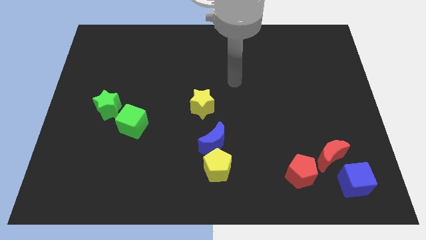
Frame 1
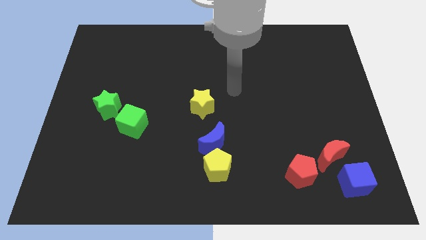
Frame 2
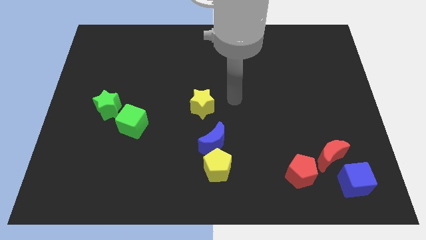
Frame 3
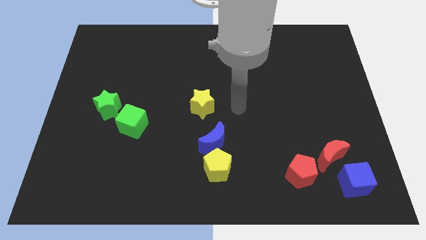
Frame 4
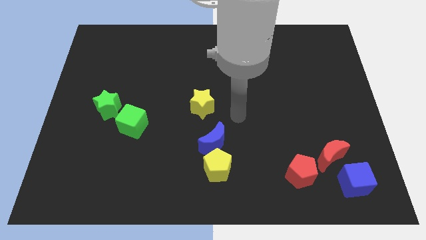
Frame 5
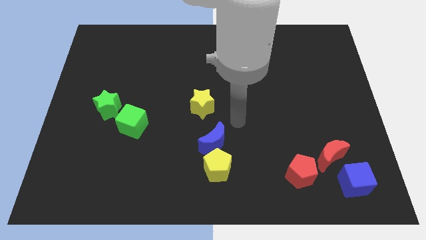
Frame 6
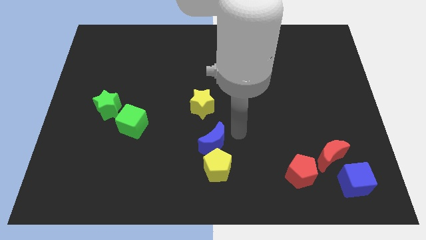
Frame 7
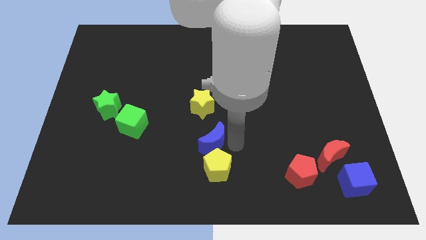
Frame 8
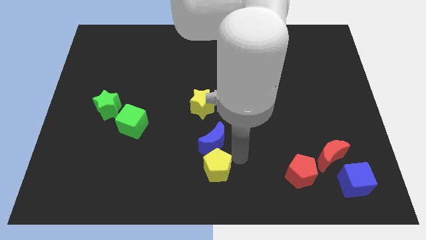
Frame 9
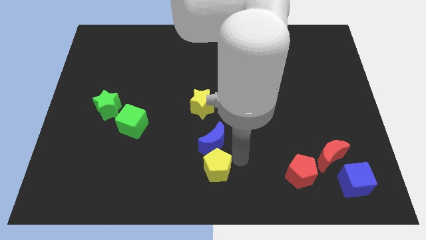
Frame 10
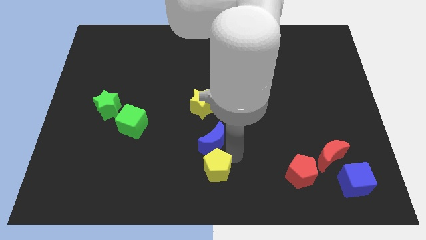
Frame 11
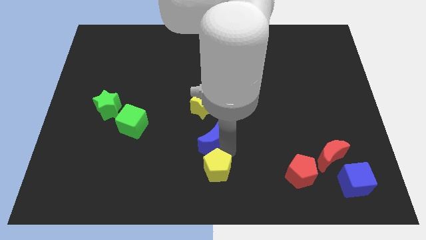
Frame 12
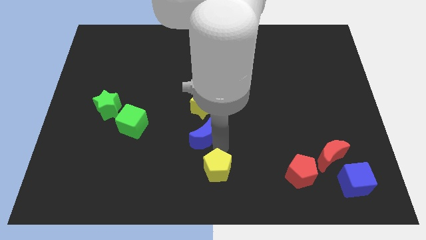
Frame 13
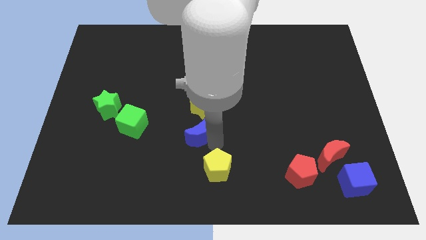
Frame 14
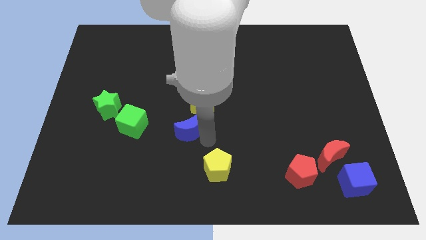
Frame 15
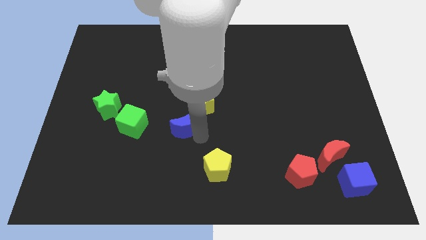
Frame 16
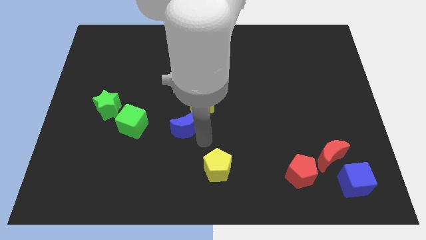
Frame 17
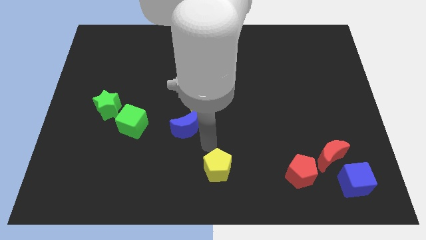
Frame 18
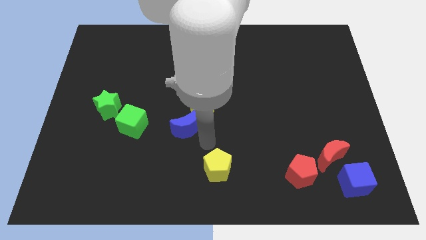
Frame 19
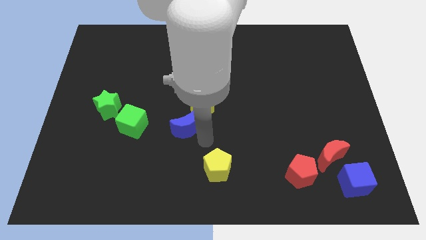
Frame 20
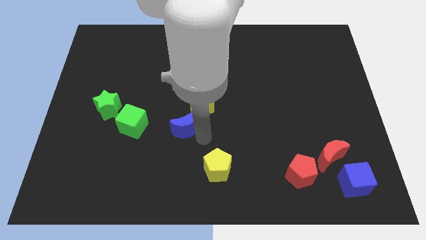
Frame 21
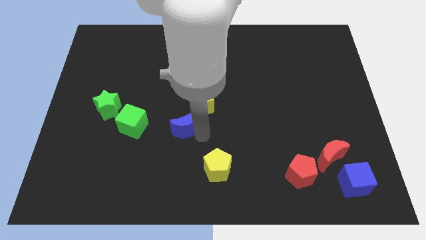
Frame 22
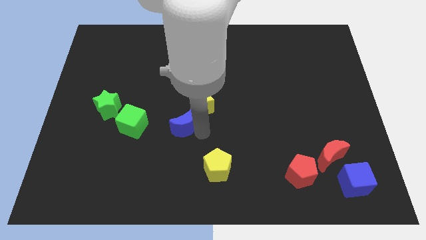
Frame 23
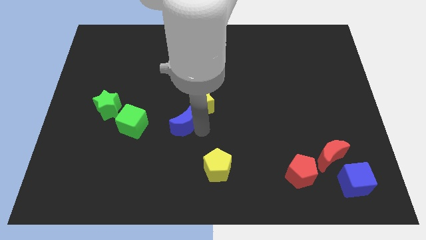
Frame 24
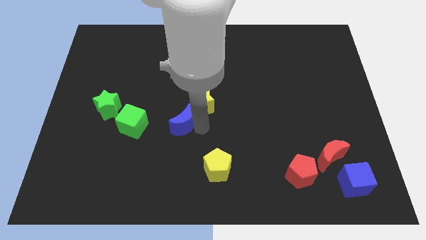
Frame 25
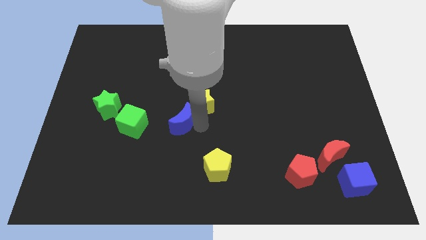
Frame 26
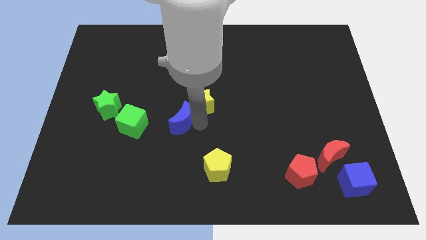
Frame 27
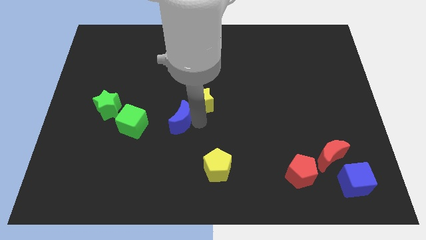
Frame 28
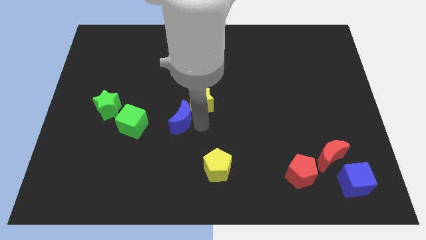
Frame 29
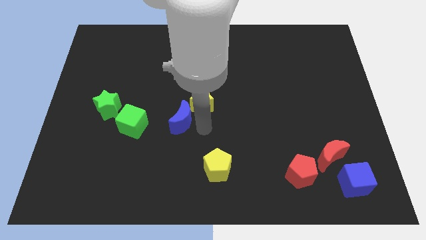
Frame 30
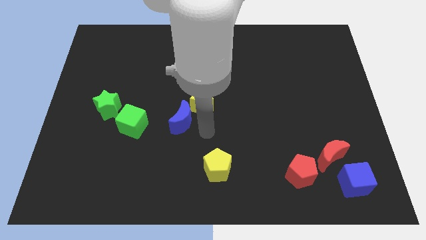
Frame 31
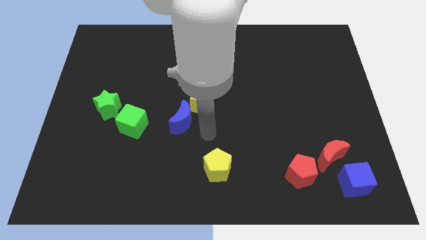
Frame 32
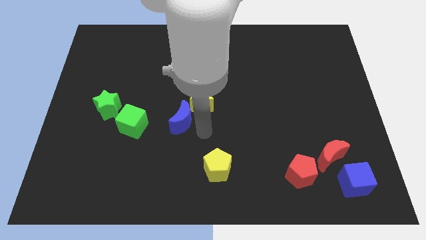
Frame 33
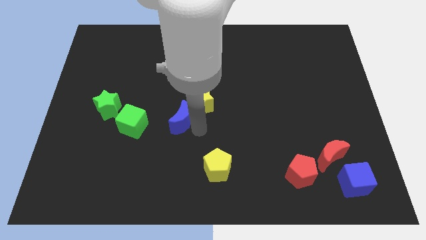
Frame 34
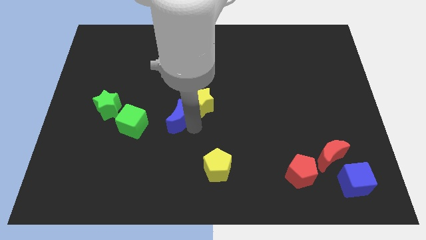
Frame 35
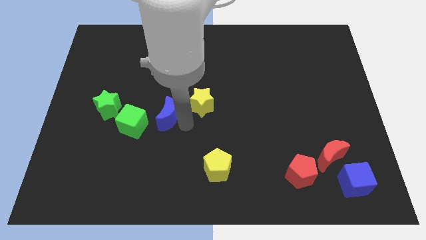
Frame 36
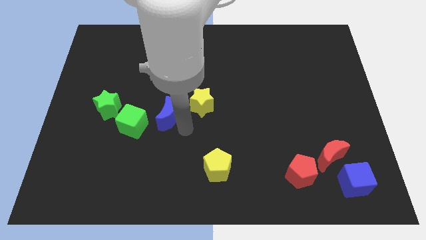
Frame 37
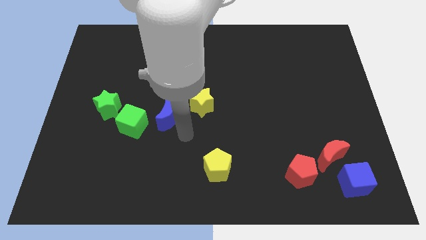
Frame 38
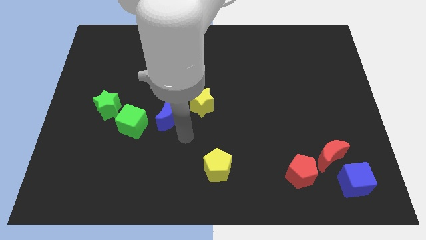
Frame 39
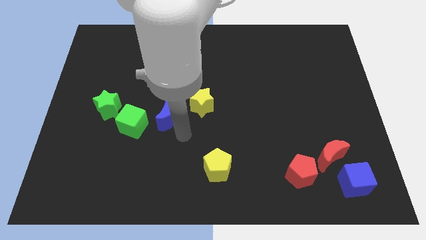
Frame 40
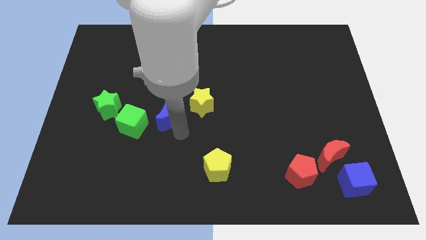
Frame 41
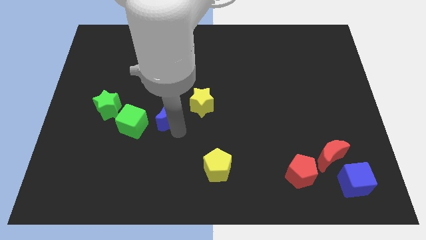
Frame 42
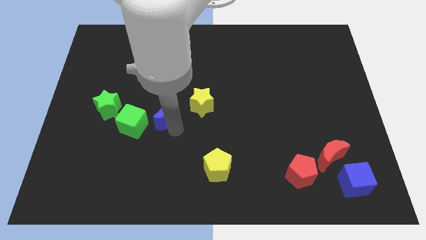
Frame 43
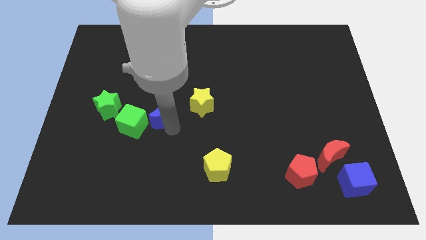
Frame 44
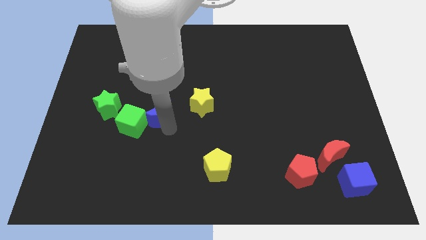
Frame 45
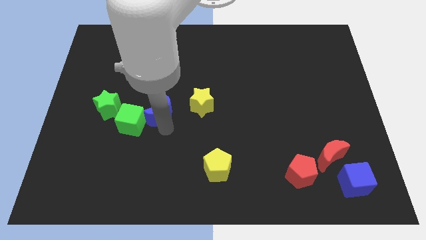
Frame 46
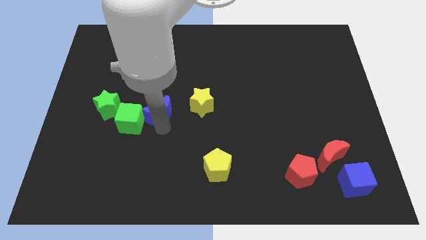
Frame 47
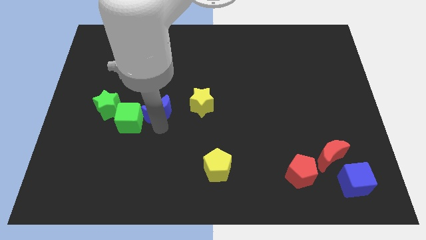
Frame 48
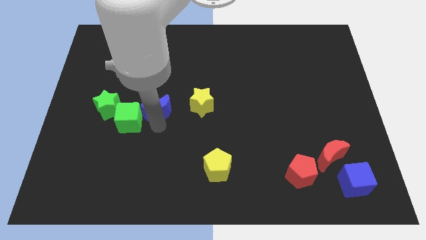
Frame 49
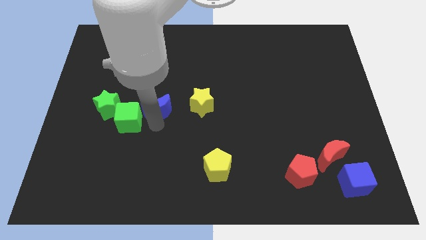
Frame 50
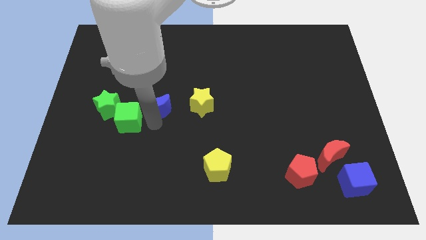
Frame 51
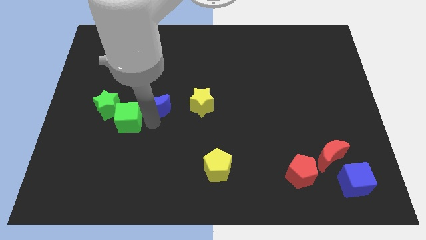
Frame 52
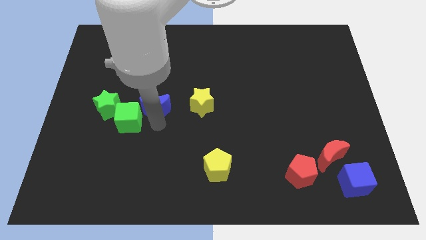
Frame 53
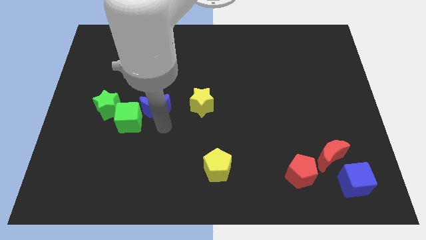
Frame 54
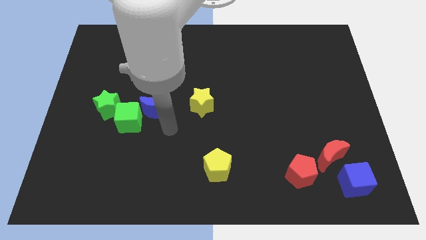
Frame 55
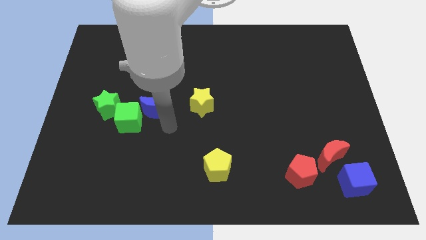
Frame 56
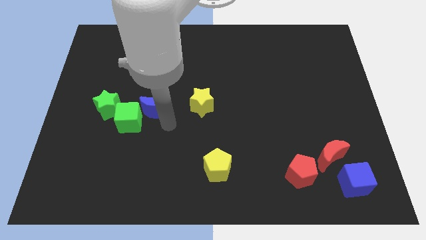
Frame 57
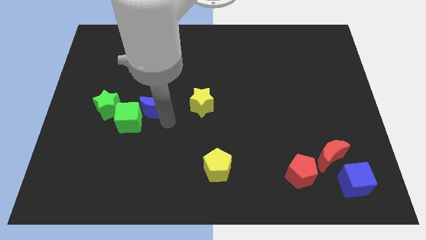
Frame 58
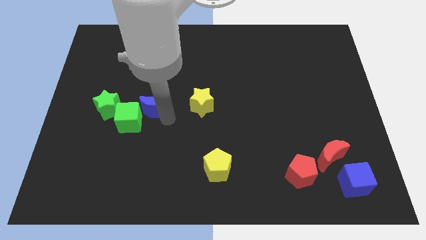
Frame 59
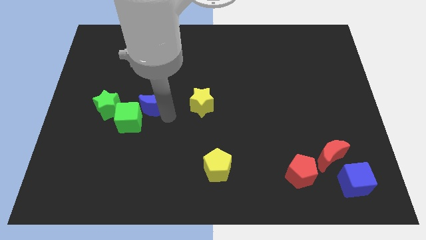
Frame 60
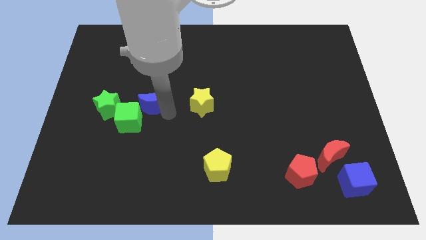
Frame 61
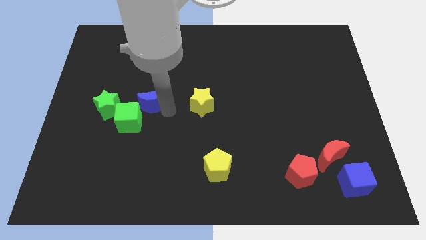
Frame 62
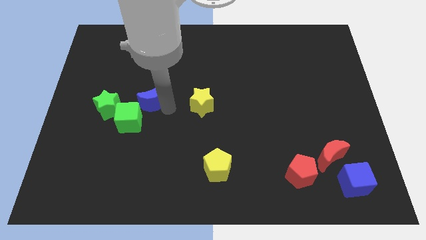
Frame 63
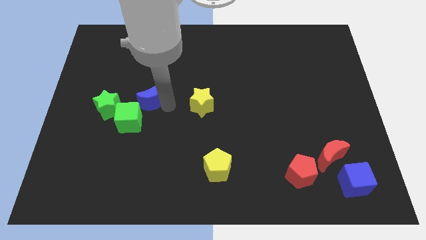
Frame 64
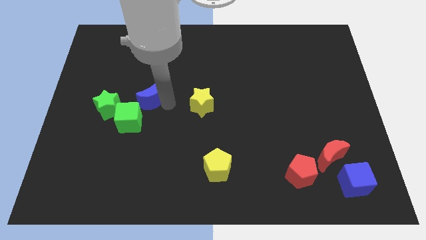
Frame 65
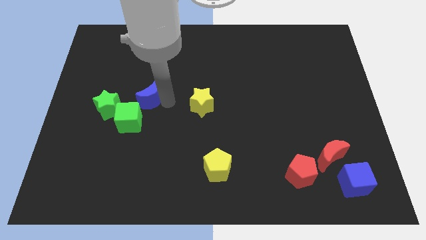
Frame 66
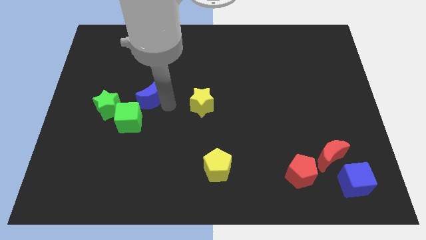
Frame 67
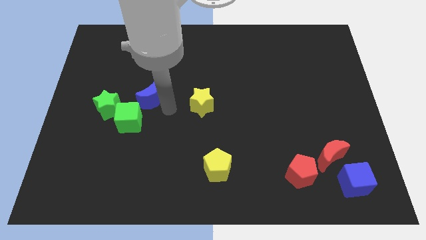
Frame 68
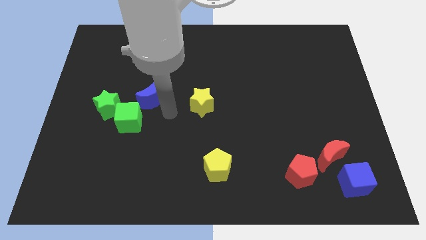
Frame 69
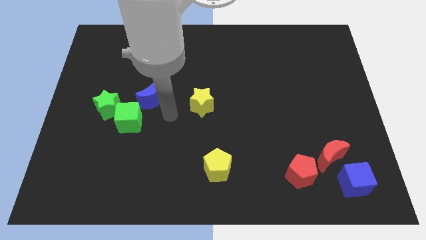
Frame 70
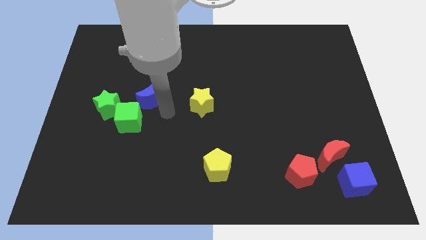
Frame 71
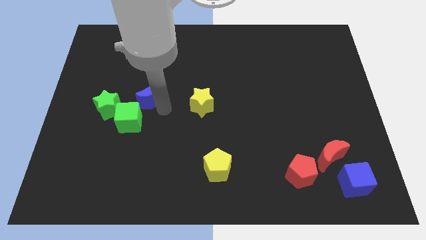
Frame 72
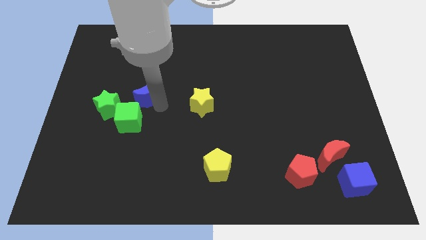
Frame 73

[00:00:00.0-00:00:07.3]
move the blue moon diagonally upwards and left

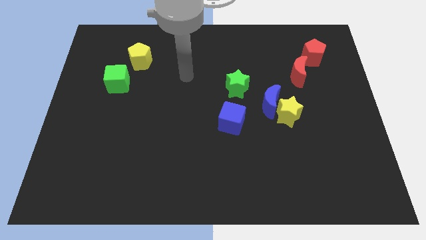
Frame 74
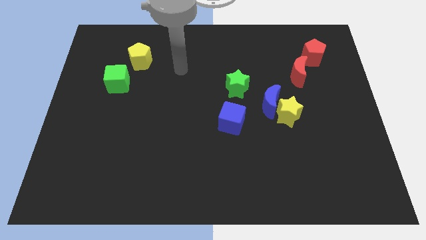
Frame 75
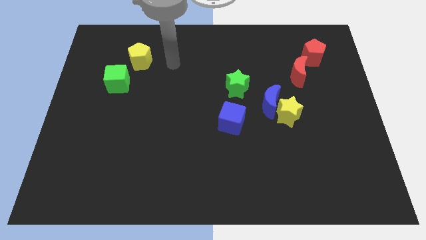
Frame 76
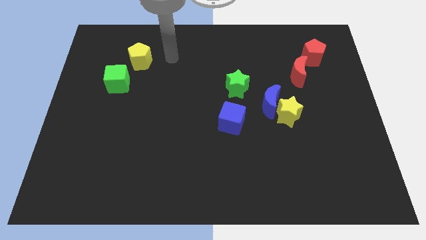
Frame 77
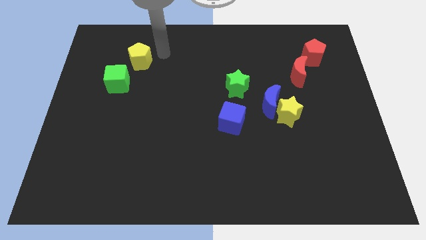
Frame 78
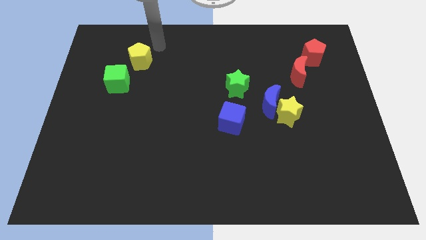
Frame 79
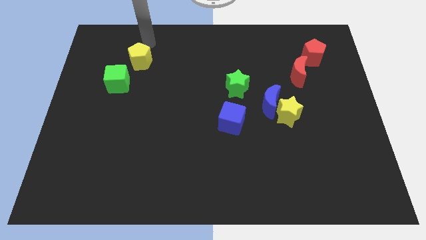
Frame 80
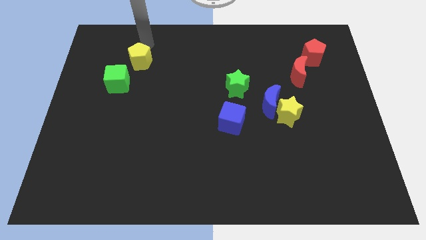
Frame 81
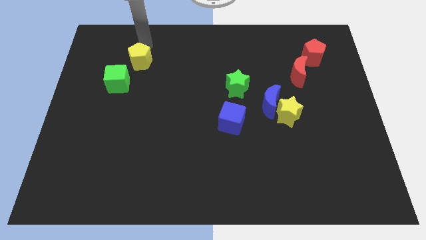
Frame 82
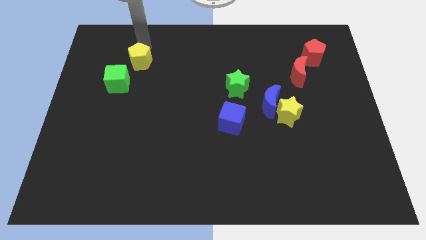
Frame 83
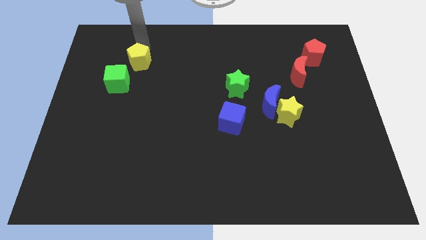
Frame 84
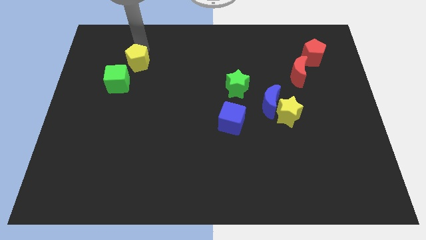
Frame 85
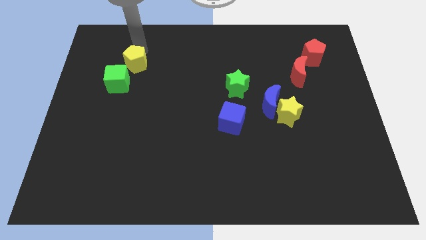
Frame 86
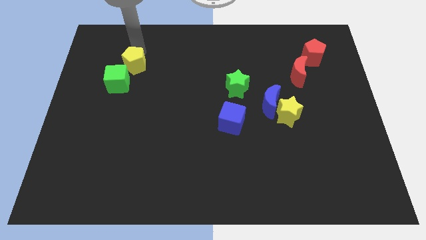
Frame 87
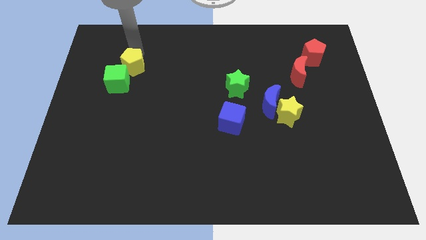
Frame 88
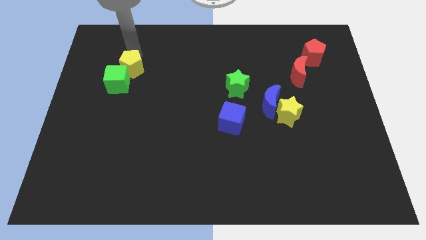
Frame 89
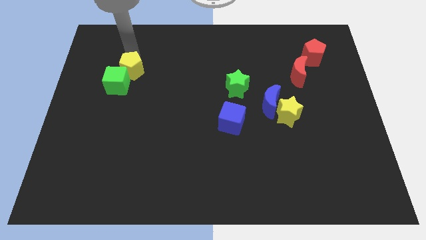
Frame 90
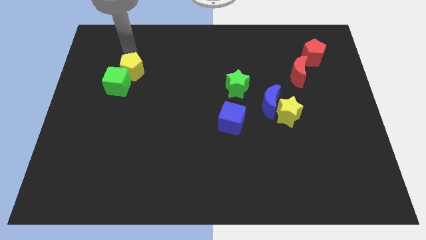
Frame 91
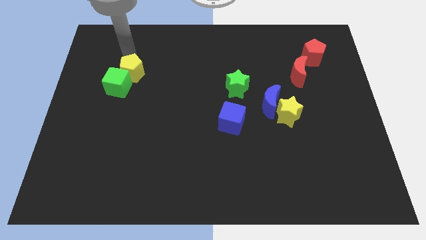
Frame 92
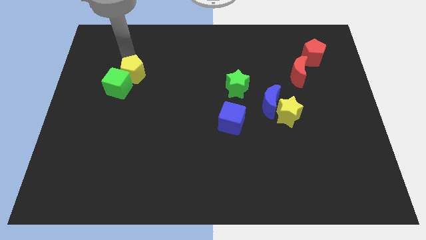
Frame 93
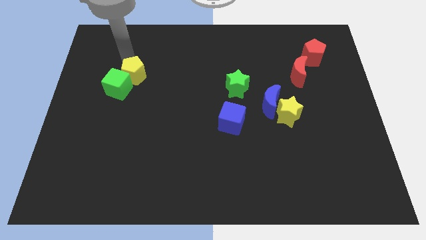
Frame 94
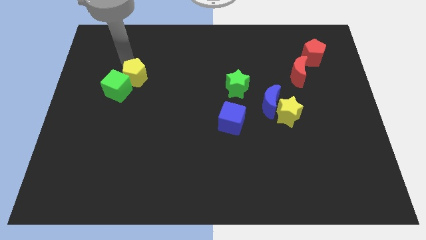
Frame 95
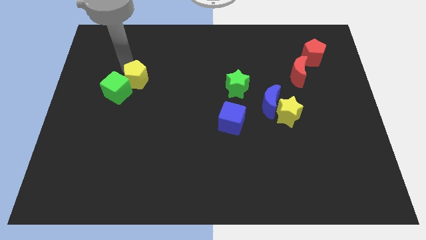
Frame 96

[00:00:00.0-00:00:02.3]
slightly push the yellow pentagon down
